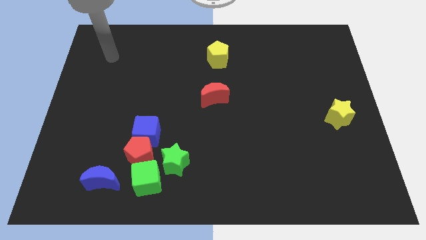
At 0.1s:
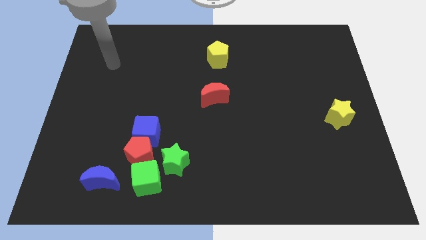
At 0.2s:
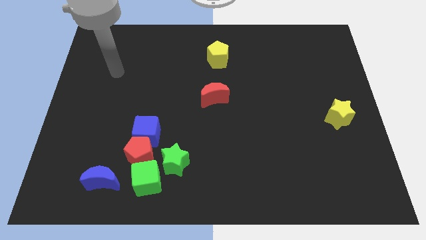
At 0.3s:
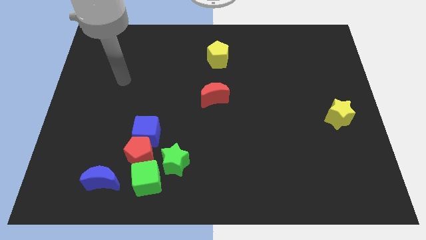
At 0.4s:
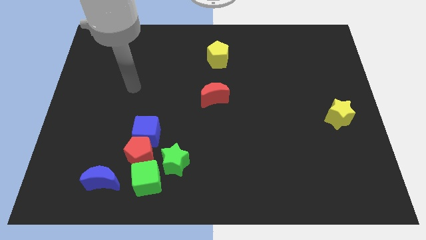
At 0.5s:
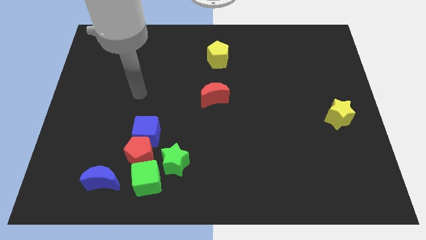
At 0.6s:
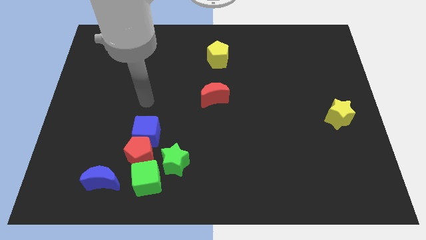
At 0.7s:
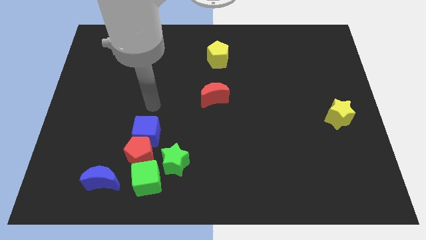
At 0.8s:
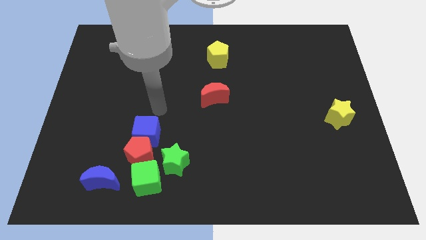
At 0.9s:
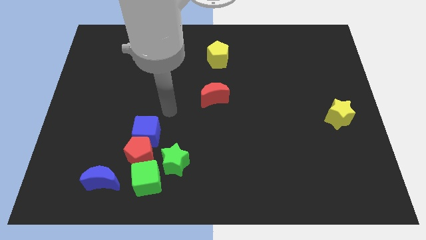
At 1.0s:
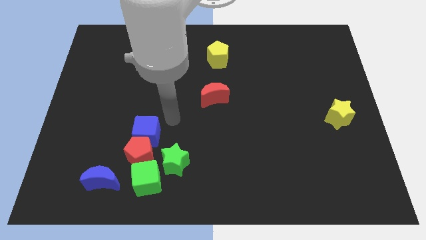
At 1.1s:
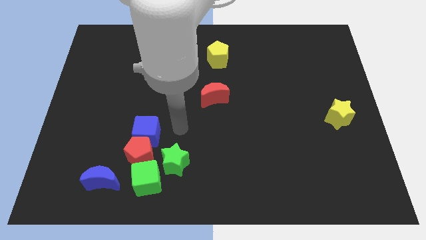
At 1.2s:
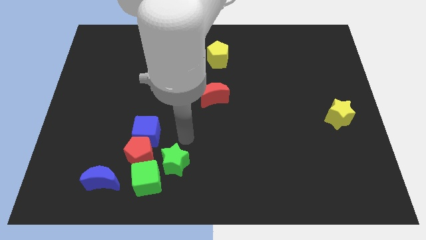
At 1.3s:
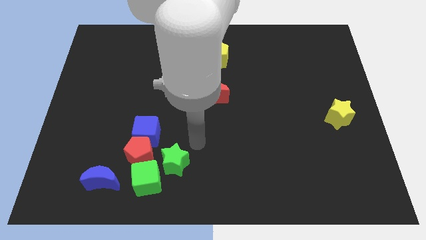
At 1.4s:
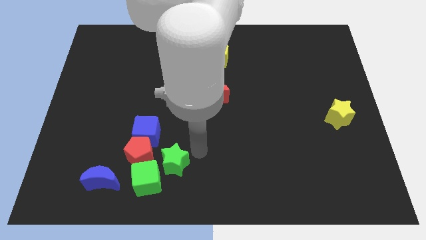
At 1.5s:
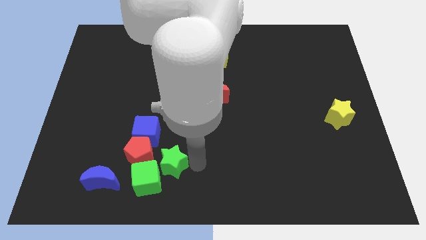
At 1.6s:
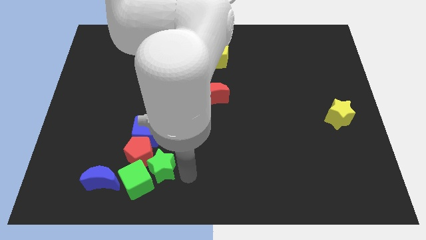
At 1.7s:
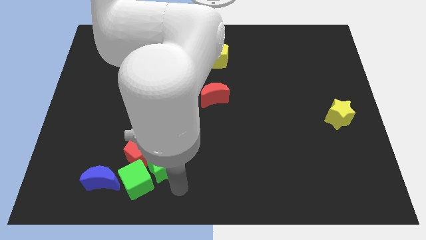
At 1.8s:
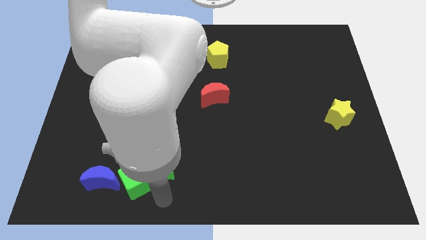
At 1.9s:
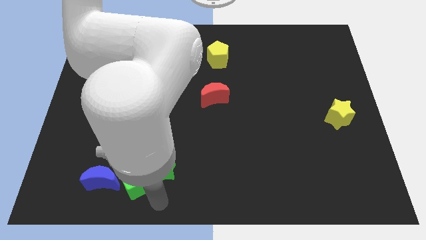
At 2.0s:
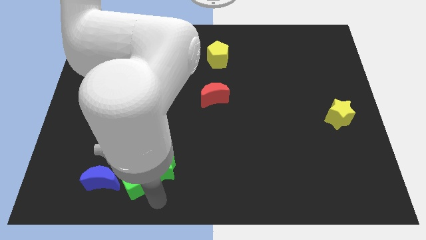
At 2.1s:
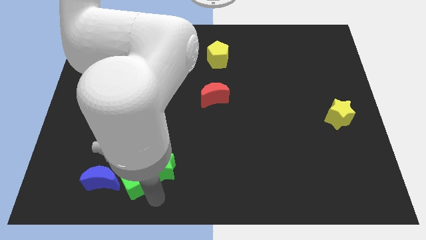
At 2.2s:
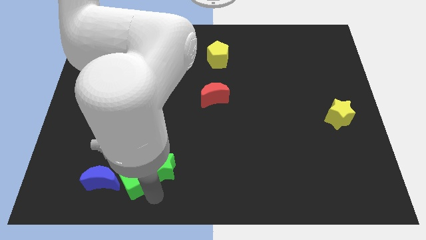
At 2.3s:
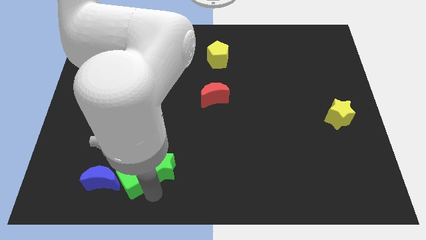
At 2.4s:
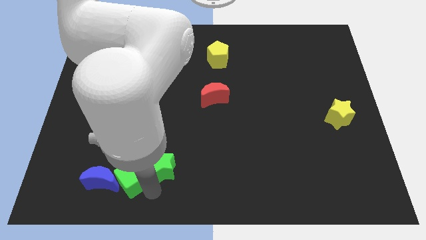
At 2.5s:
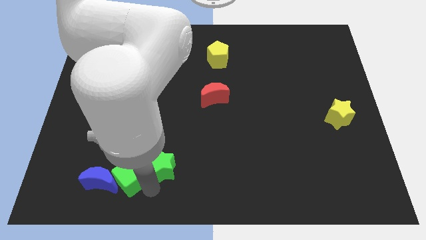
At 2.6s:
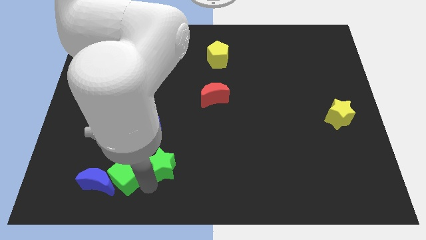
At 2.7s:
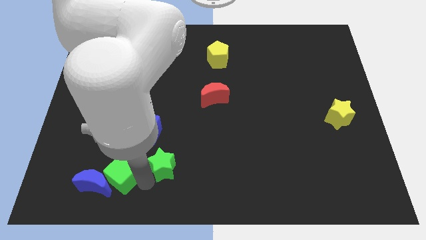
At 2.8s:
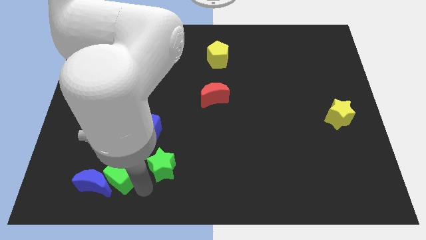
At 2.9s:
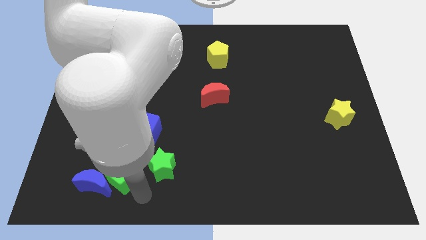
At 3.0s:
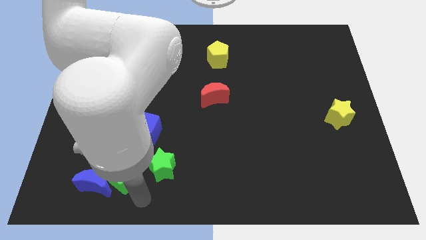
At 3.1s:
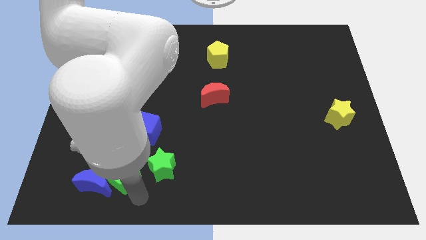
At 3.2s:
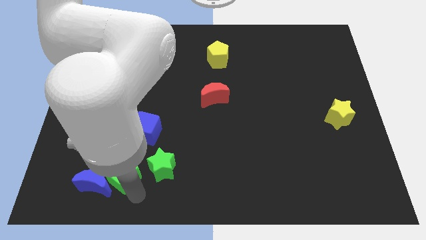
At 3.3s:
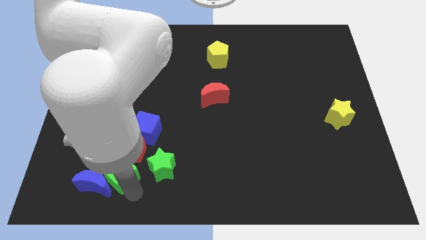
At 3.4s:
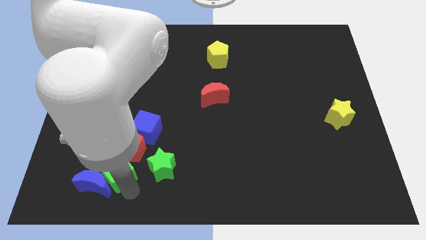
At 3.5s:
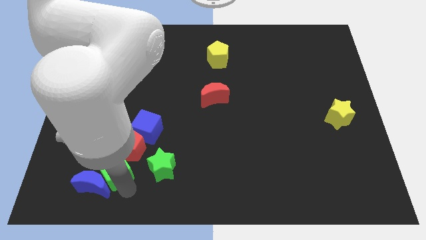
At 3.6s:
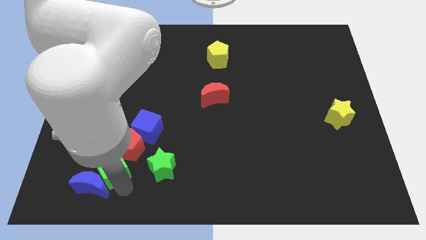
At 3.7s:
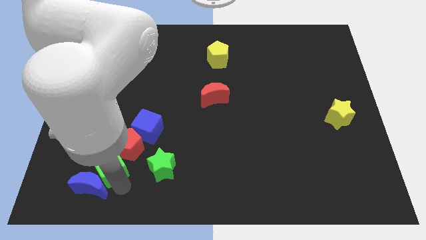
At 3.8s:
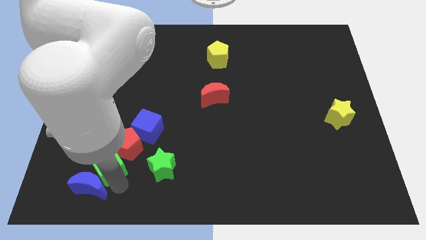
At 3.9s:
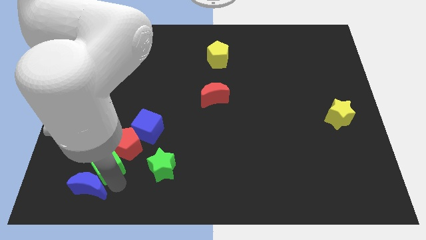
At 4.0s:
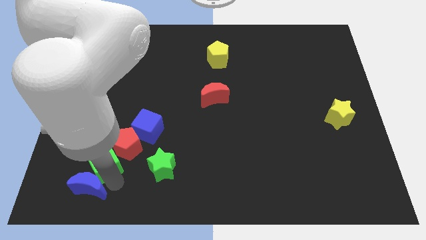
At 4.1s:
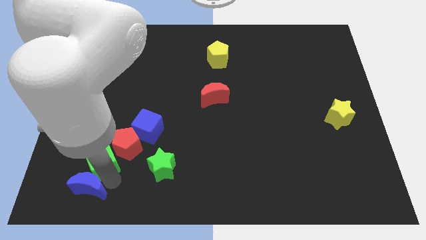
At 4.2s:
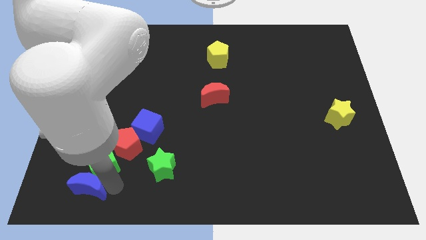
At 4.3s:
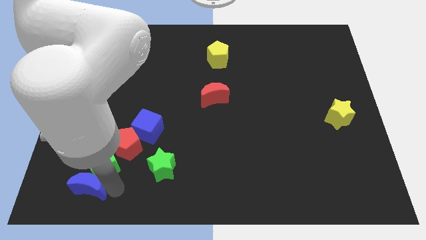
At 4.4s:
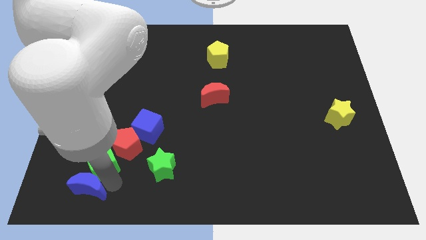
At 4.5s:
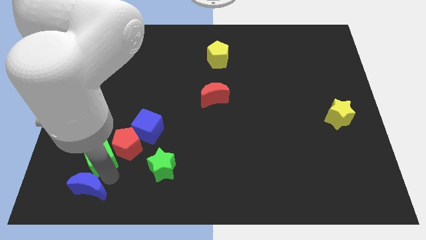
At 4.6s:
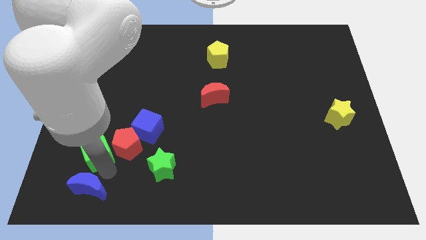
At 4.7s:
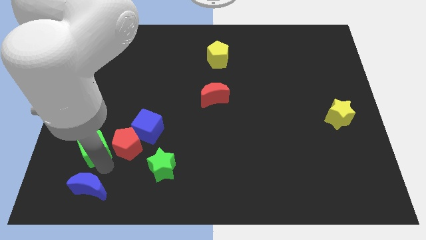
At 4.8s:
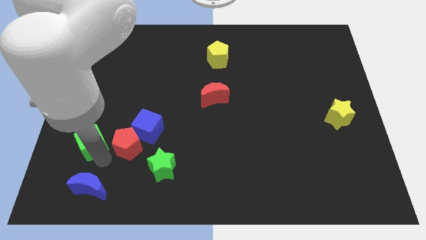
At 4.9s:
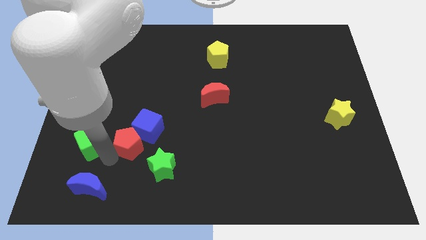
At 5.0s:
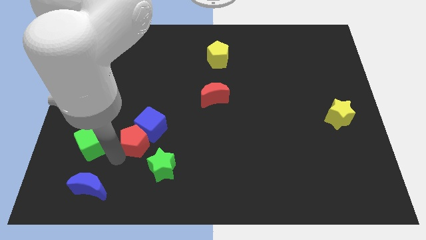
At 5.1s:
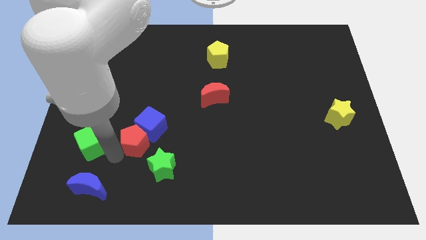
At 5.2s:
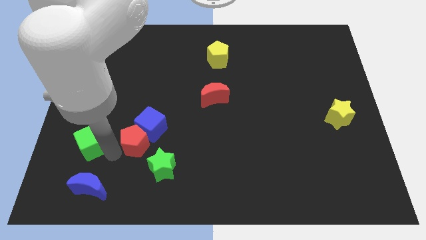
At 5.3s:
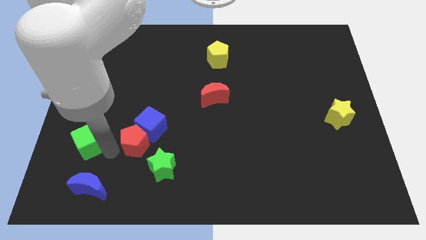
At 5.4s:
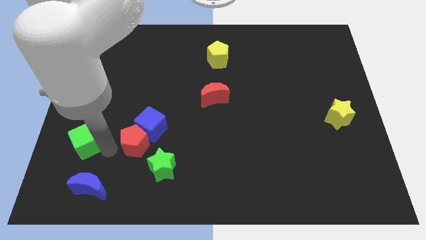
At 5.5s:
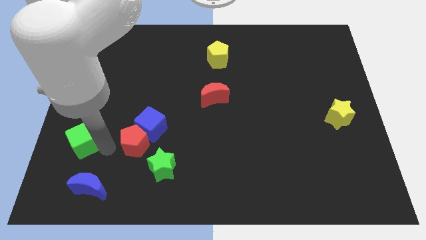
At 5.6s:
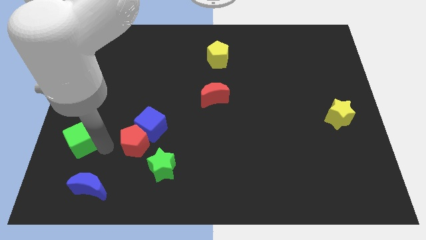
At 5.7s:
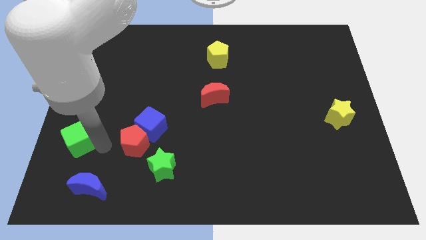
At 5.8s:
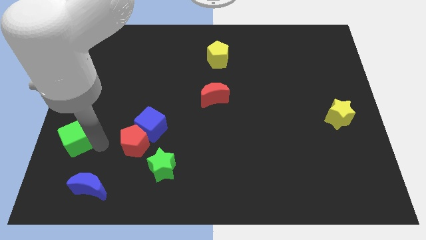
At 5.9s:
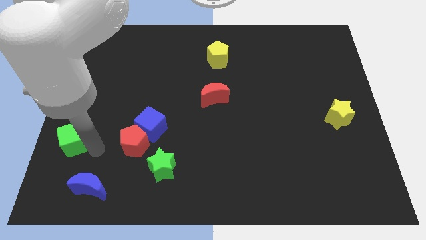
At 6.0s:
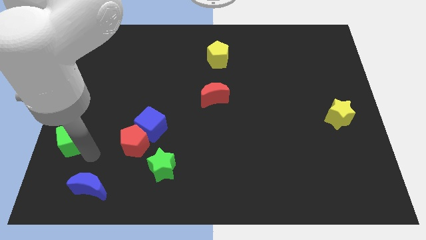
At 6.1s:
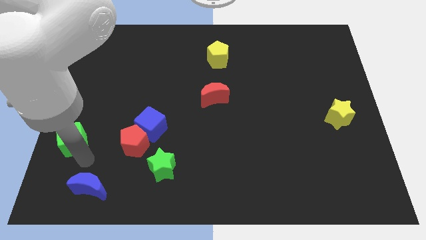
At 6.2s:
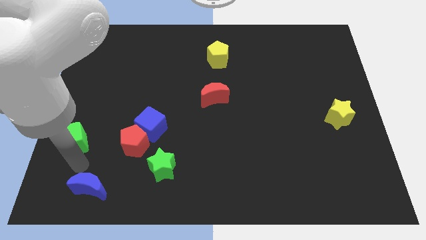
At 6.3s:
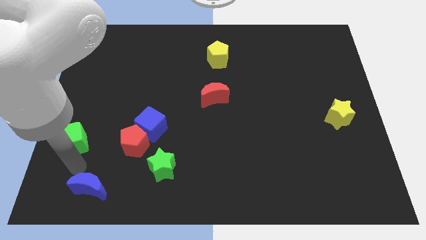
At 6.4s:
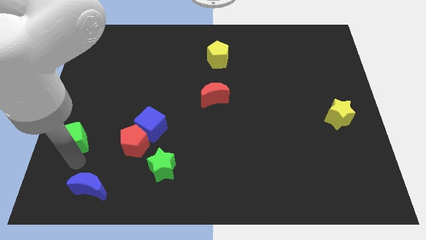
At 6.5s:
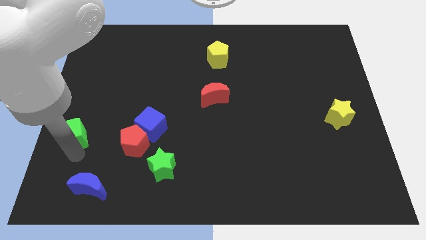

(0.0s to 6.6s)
put the green cube to the left side
